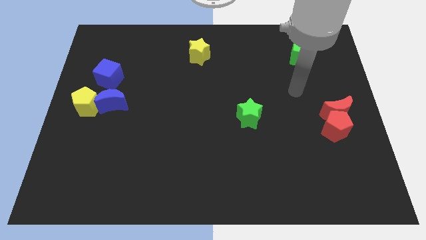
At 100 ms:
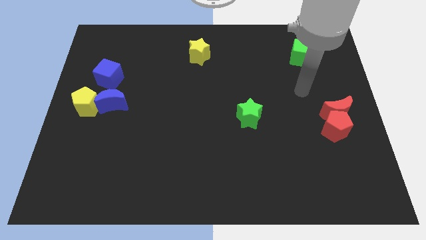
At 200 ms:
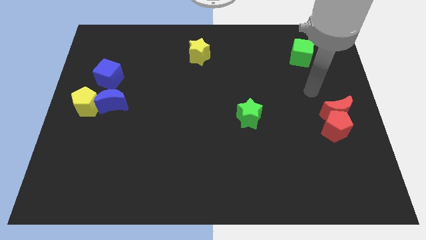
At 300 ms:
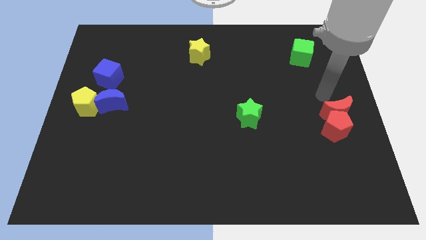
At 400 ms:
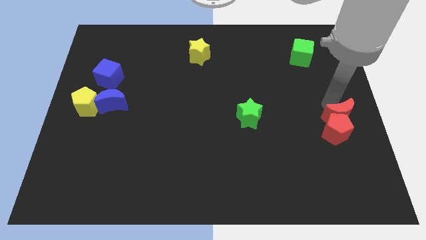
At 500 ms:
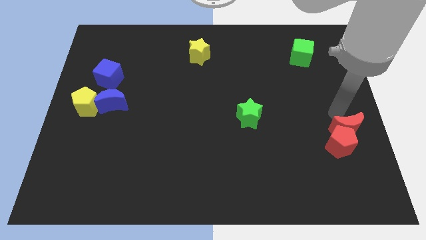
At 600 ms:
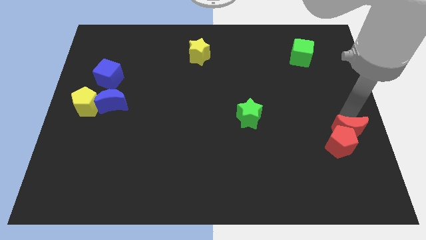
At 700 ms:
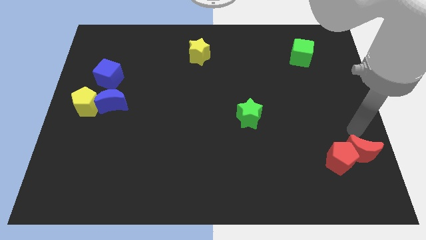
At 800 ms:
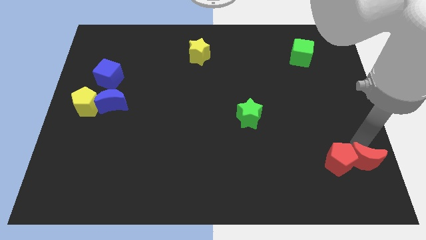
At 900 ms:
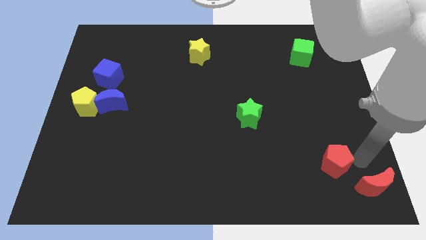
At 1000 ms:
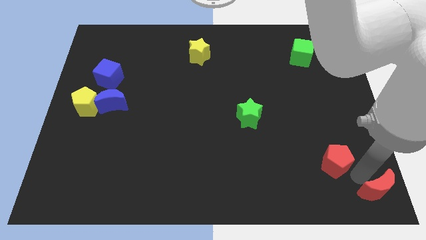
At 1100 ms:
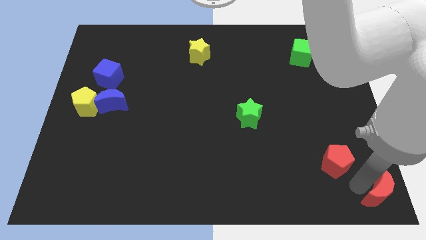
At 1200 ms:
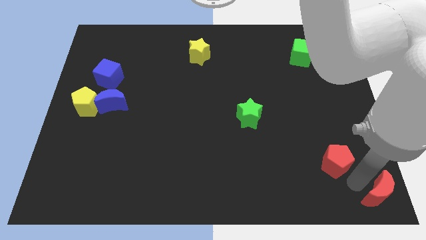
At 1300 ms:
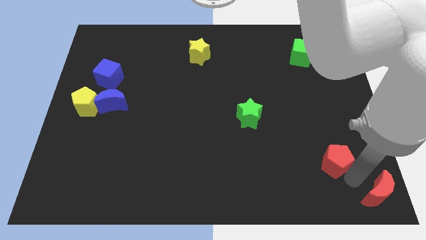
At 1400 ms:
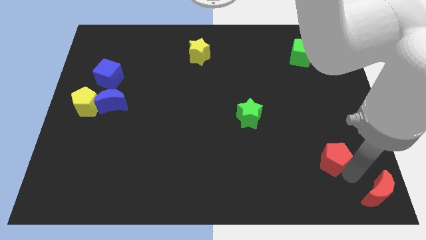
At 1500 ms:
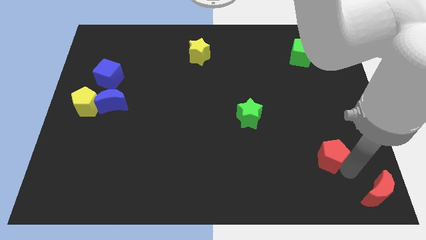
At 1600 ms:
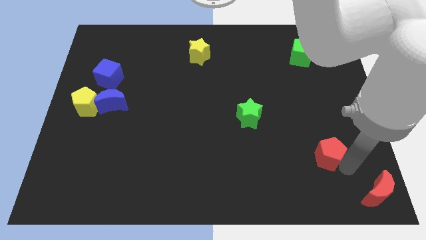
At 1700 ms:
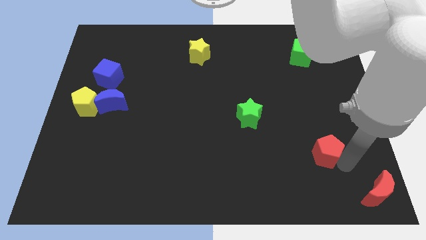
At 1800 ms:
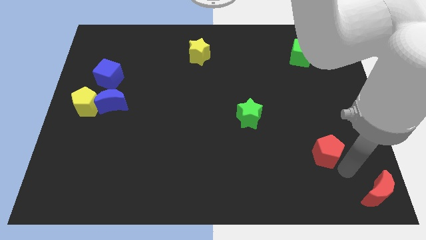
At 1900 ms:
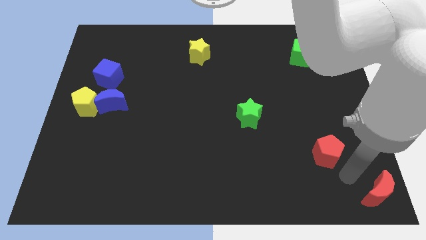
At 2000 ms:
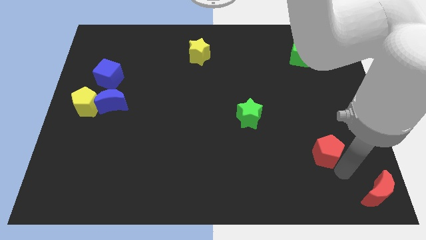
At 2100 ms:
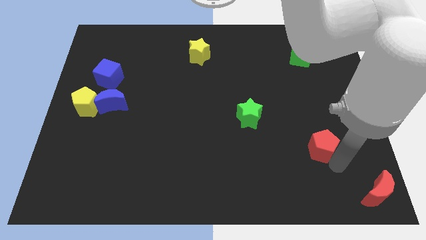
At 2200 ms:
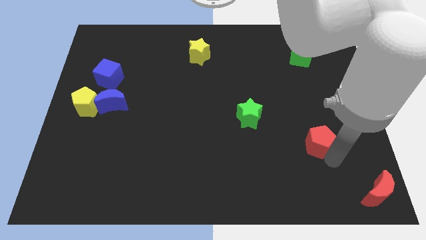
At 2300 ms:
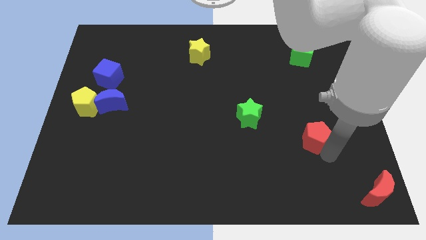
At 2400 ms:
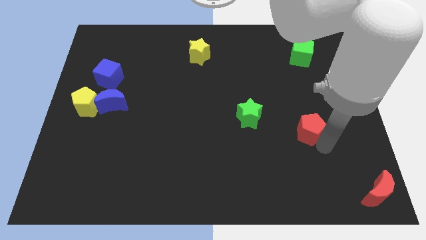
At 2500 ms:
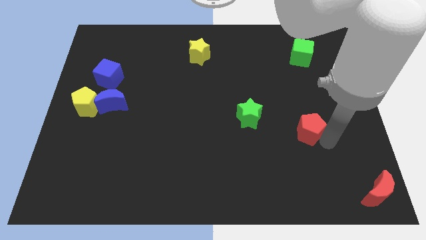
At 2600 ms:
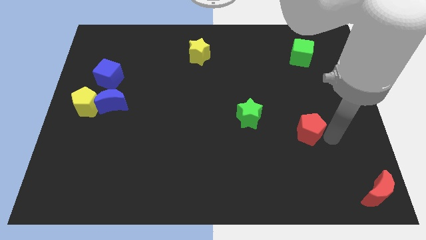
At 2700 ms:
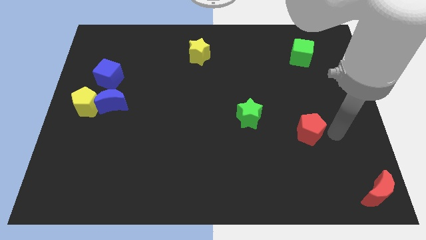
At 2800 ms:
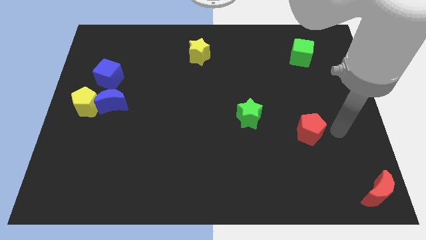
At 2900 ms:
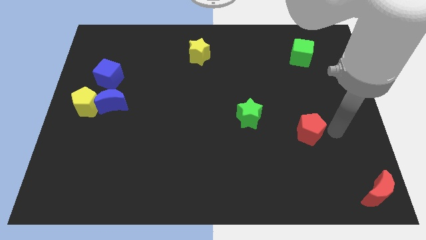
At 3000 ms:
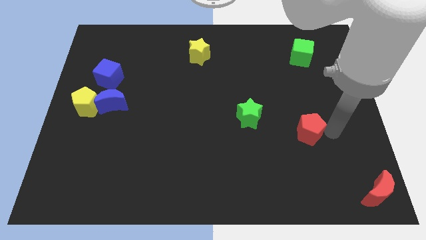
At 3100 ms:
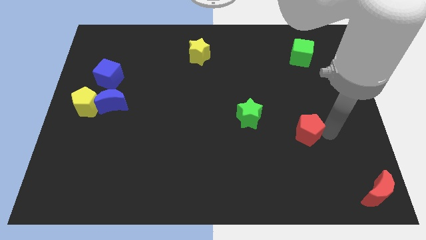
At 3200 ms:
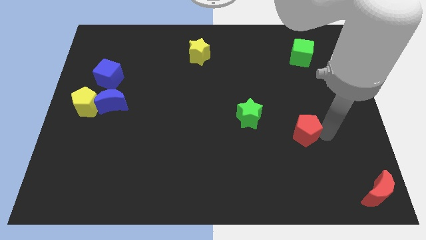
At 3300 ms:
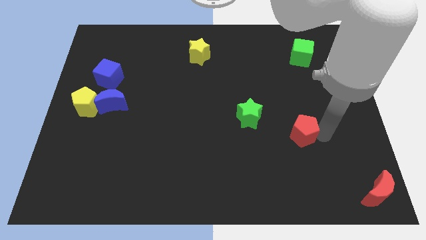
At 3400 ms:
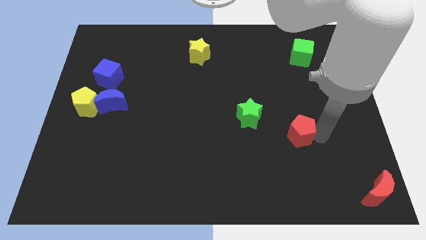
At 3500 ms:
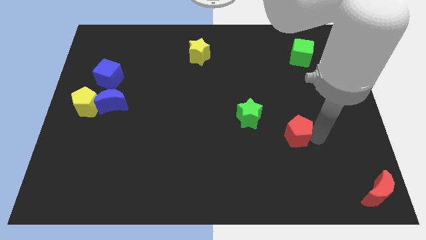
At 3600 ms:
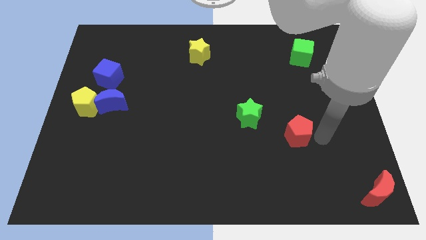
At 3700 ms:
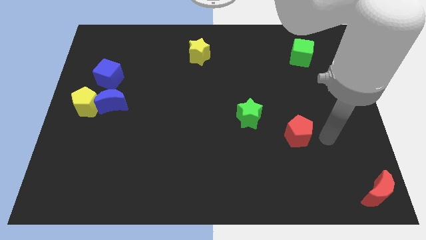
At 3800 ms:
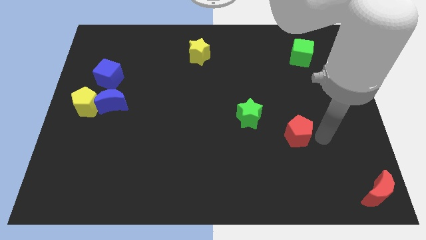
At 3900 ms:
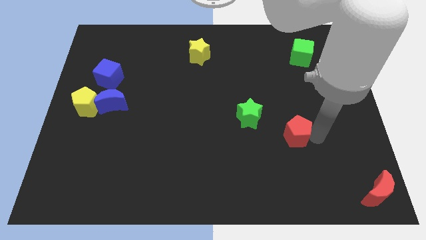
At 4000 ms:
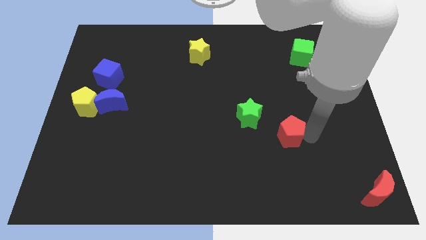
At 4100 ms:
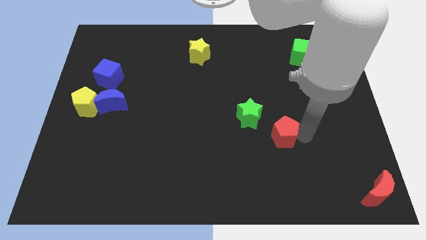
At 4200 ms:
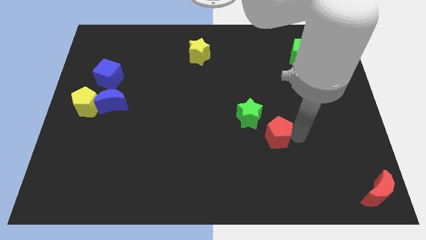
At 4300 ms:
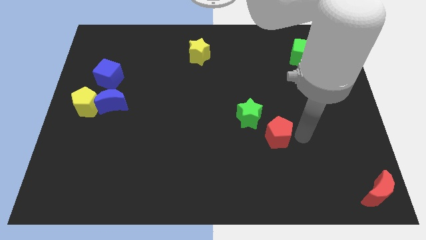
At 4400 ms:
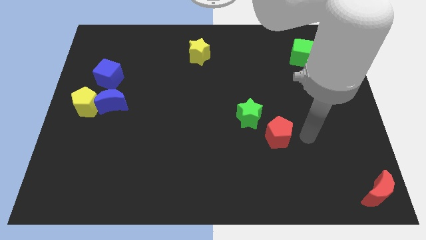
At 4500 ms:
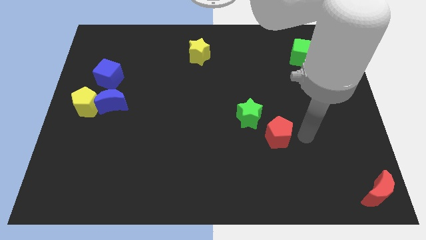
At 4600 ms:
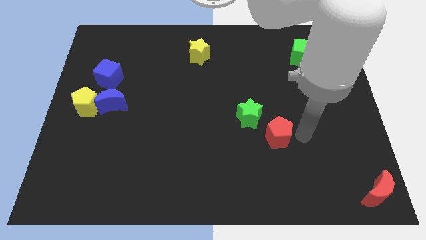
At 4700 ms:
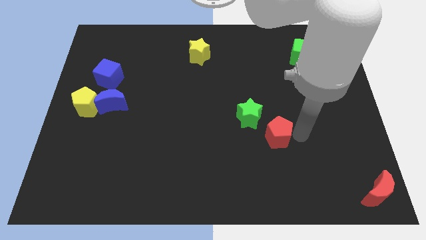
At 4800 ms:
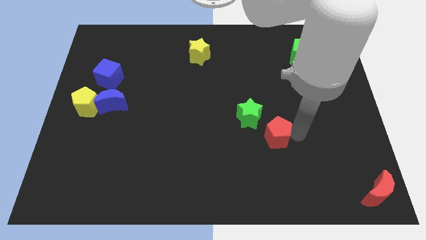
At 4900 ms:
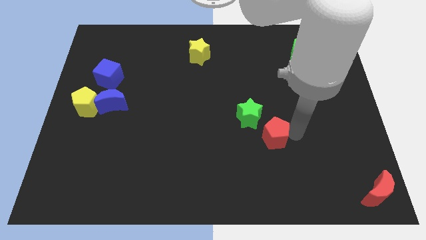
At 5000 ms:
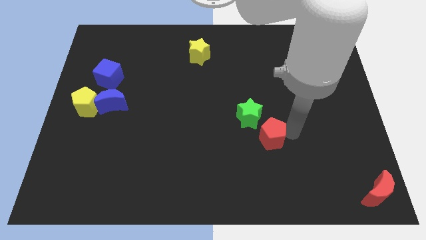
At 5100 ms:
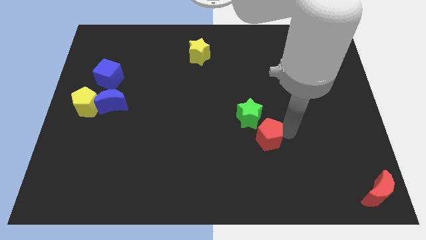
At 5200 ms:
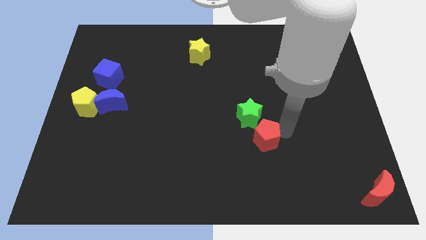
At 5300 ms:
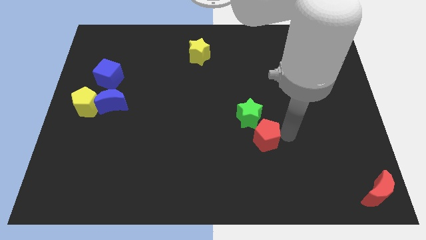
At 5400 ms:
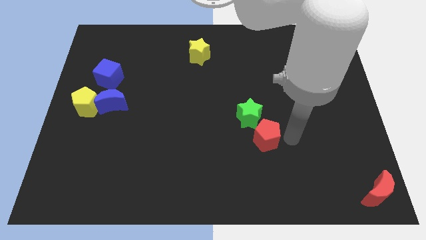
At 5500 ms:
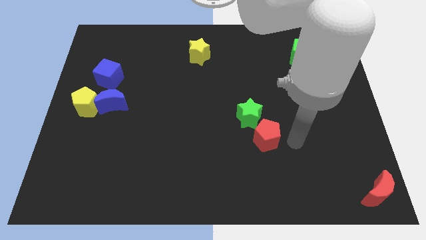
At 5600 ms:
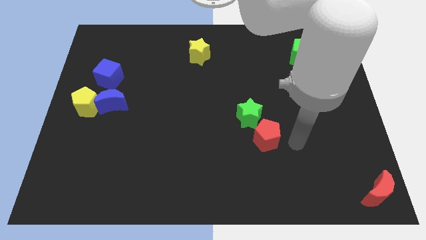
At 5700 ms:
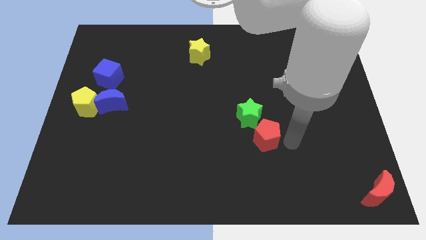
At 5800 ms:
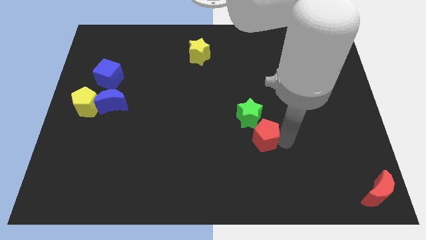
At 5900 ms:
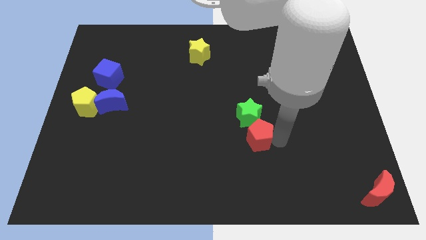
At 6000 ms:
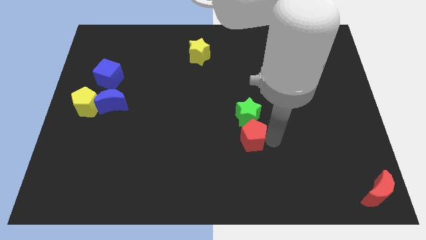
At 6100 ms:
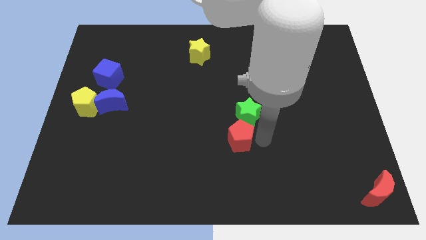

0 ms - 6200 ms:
push the red pentagon to the left

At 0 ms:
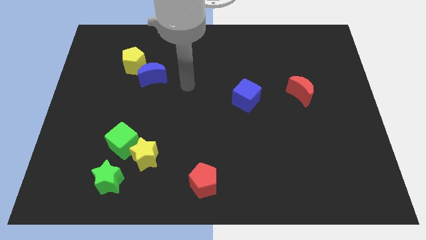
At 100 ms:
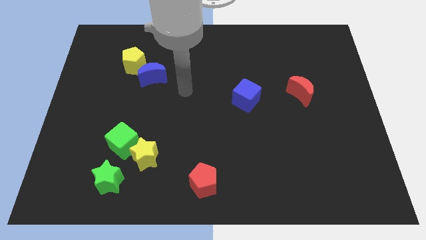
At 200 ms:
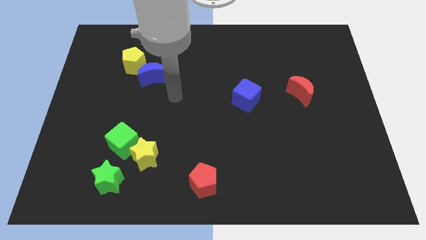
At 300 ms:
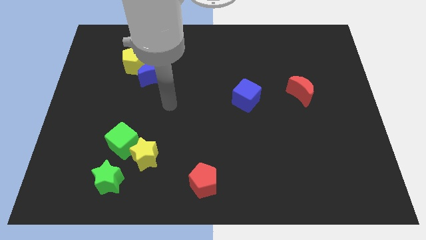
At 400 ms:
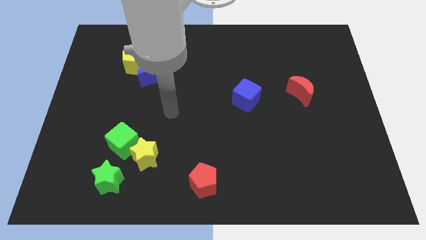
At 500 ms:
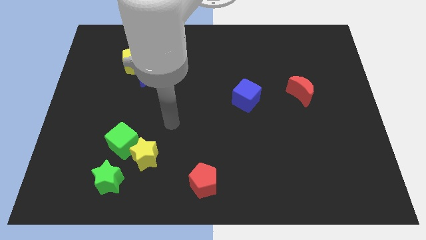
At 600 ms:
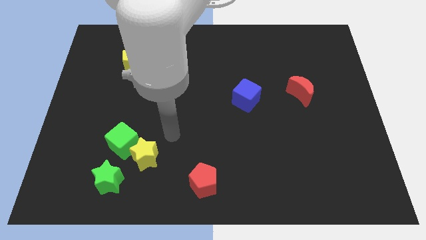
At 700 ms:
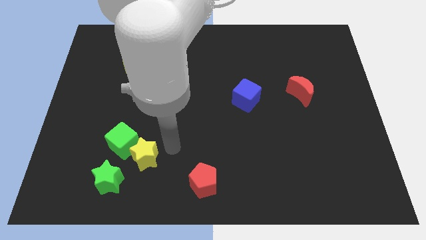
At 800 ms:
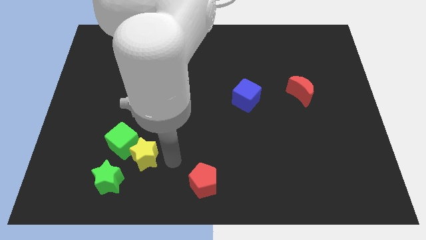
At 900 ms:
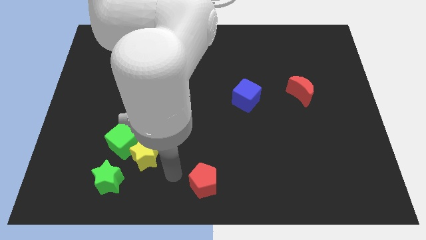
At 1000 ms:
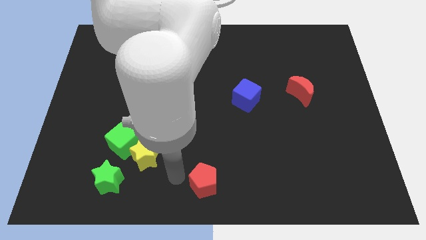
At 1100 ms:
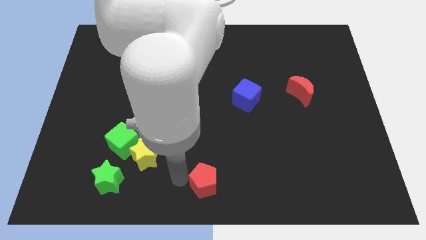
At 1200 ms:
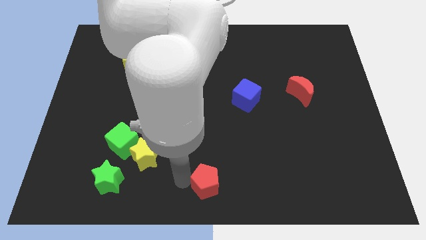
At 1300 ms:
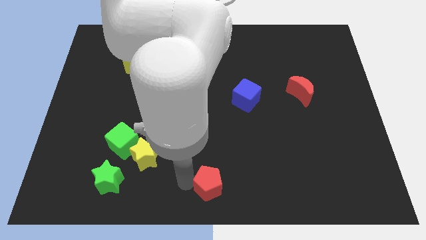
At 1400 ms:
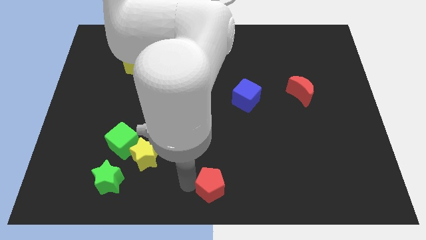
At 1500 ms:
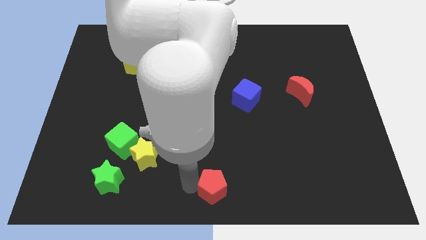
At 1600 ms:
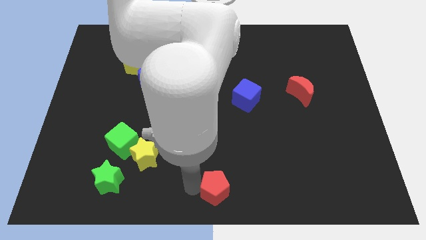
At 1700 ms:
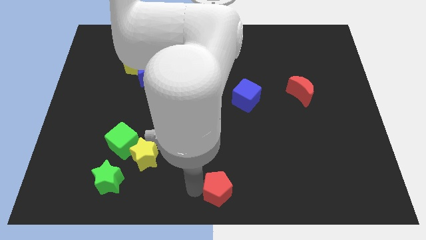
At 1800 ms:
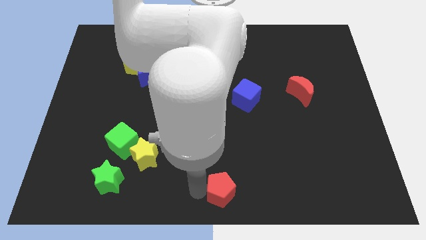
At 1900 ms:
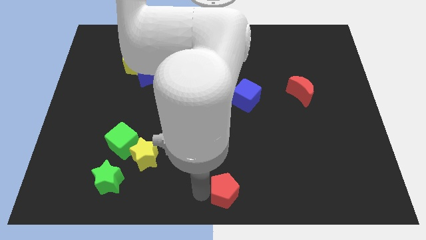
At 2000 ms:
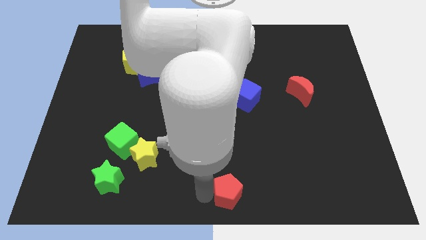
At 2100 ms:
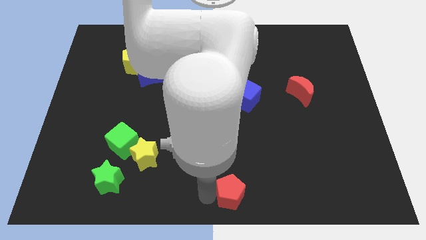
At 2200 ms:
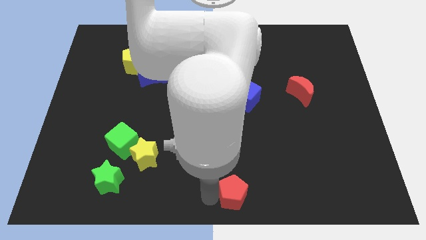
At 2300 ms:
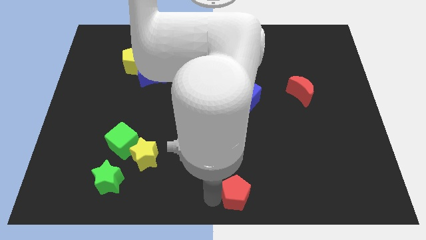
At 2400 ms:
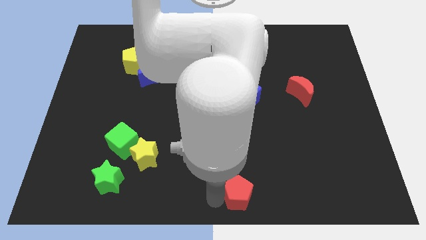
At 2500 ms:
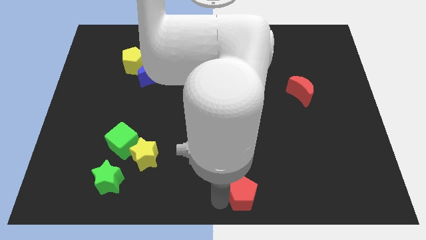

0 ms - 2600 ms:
push the red pentagon somewhat to the right
